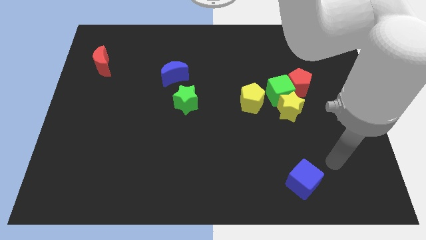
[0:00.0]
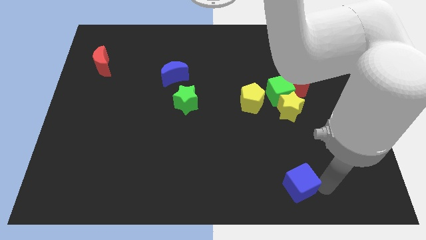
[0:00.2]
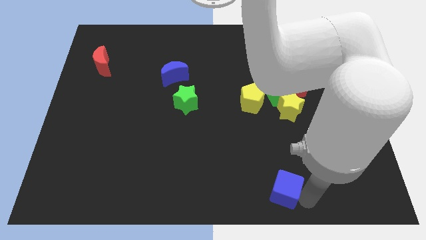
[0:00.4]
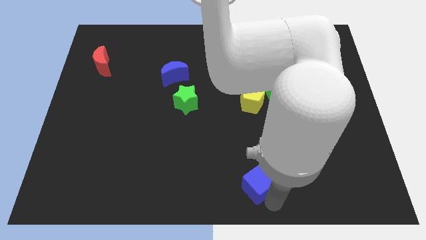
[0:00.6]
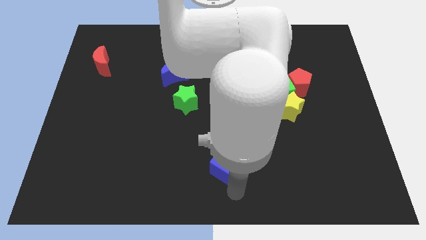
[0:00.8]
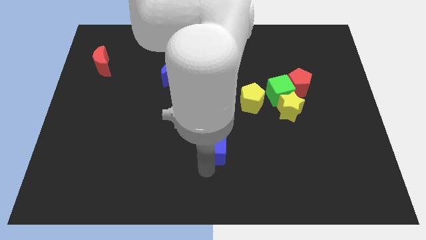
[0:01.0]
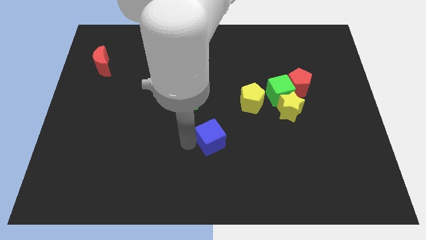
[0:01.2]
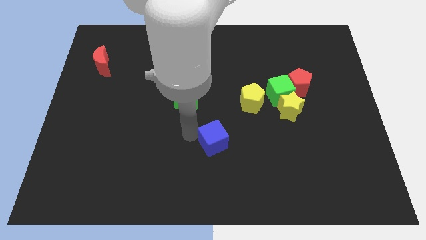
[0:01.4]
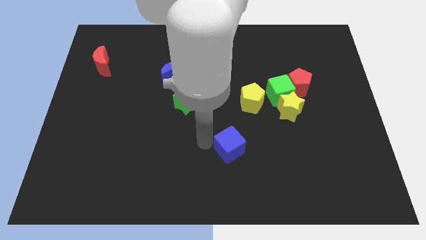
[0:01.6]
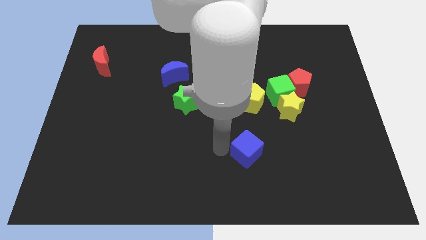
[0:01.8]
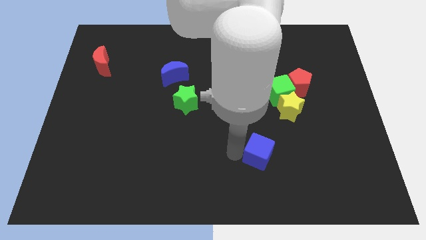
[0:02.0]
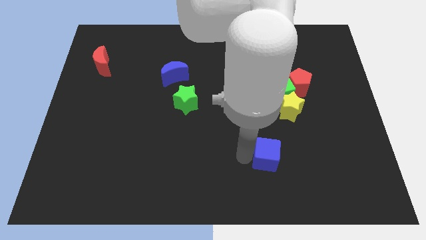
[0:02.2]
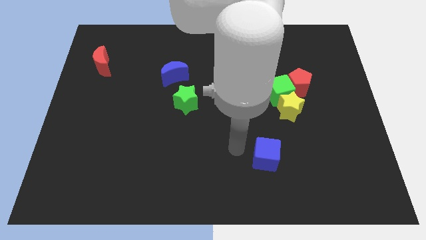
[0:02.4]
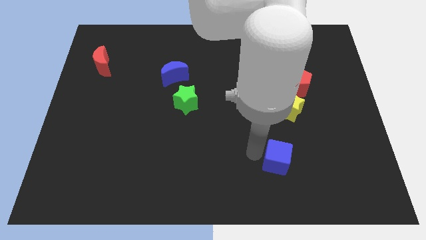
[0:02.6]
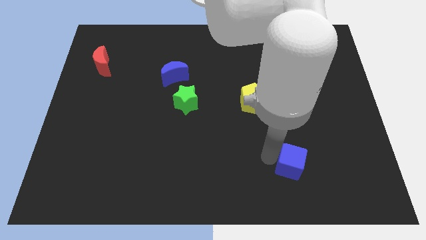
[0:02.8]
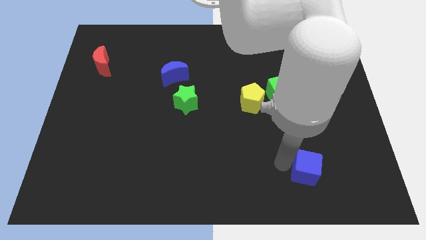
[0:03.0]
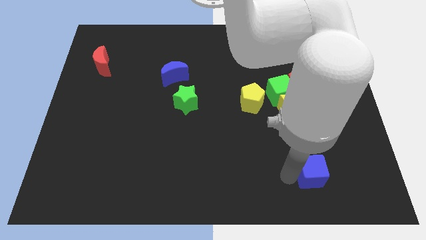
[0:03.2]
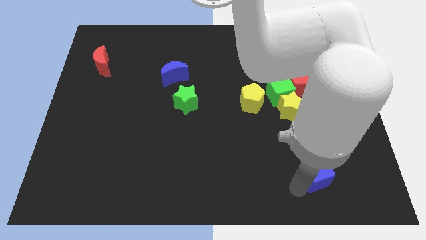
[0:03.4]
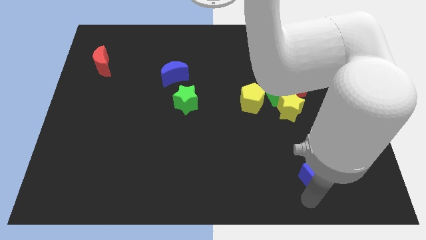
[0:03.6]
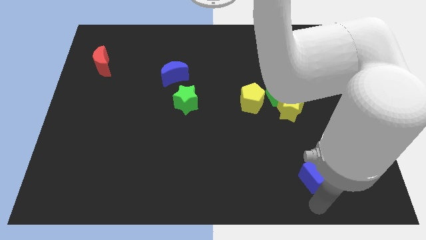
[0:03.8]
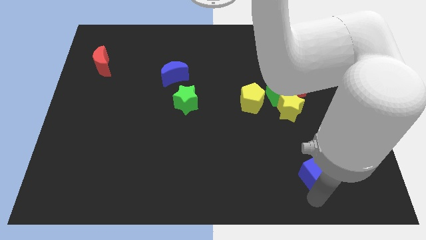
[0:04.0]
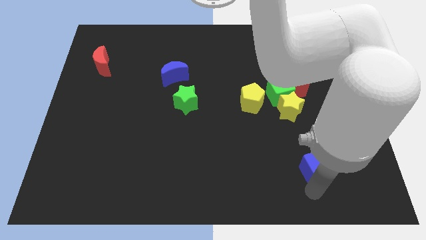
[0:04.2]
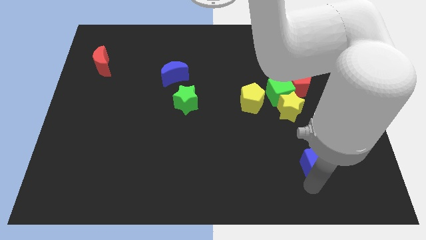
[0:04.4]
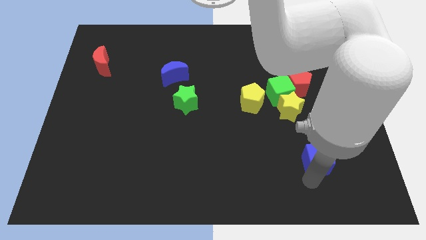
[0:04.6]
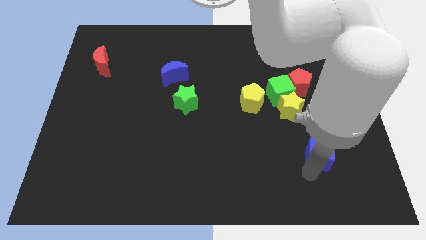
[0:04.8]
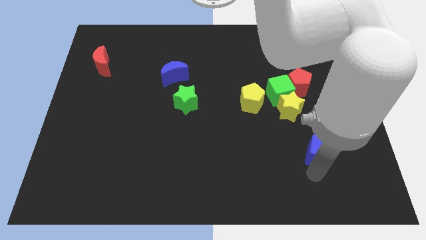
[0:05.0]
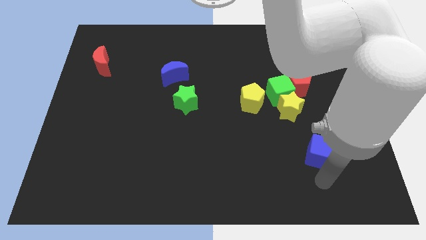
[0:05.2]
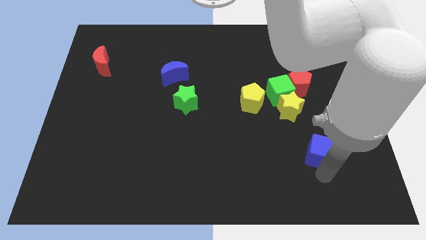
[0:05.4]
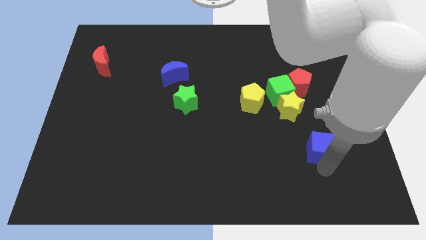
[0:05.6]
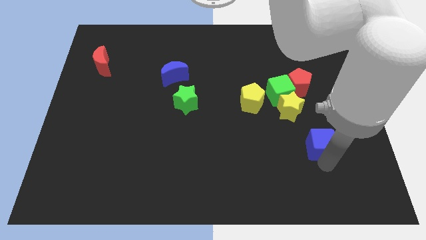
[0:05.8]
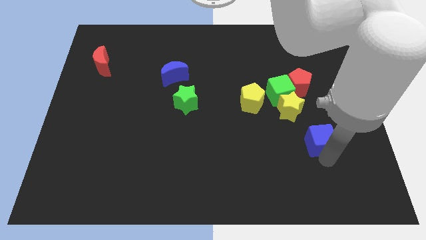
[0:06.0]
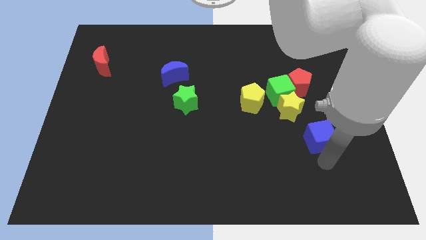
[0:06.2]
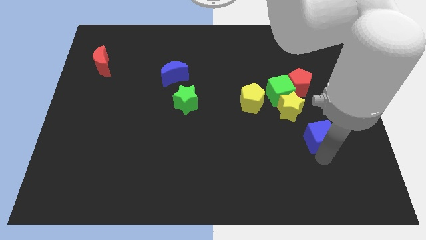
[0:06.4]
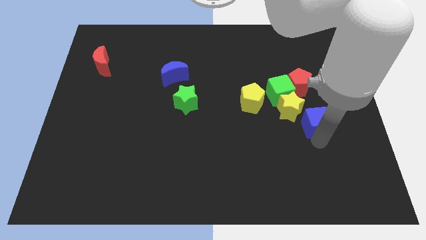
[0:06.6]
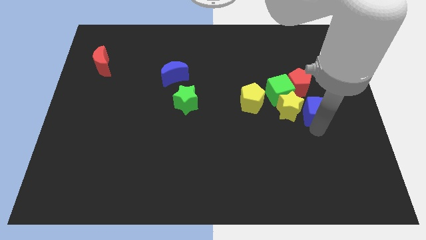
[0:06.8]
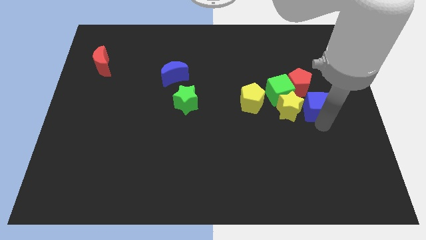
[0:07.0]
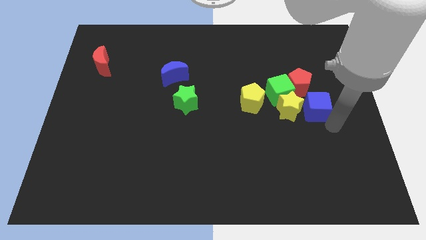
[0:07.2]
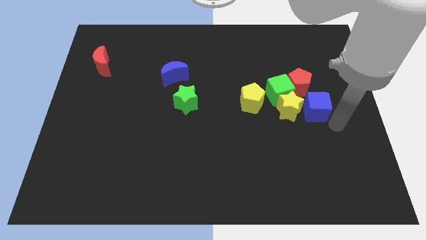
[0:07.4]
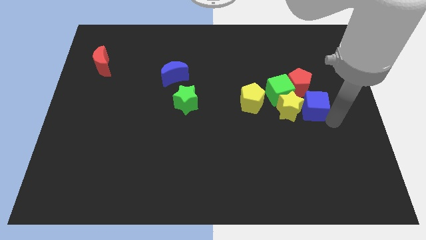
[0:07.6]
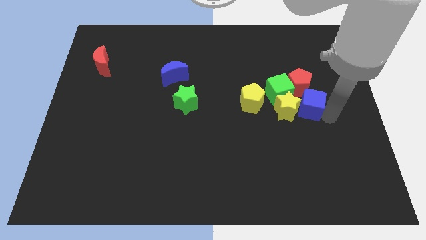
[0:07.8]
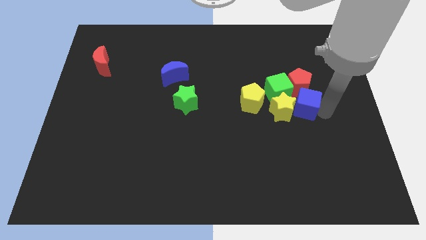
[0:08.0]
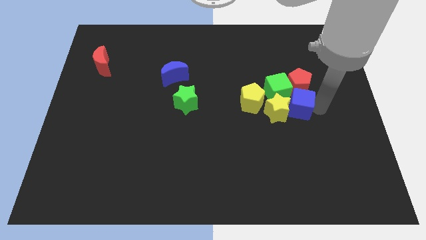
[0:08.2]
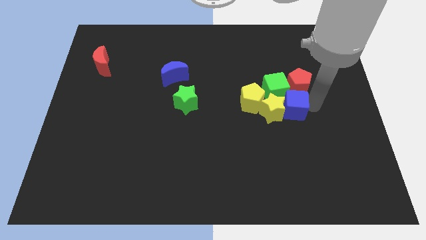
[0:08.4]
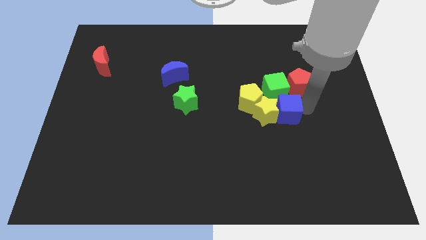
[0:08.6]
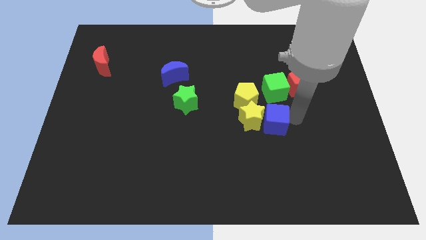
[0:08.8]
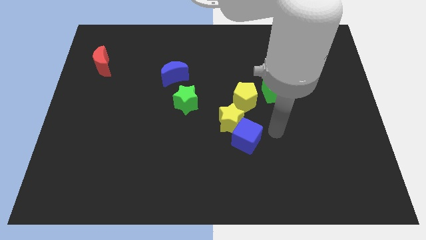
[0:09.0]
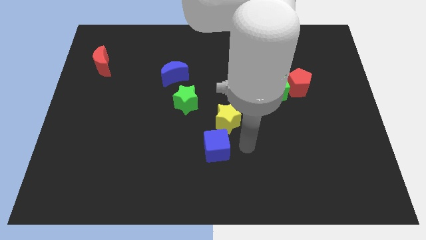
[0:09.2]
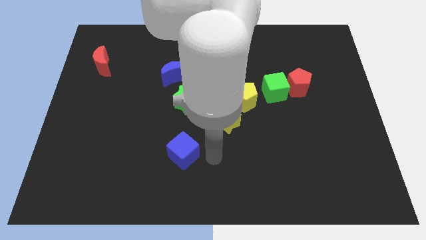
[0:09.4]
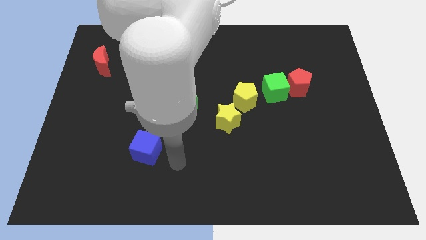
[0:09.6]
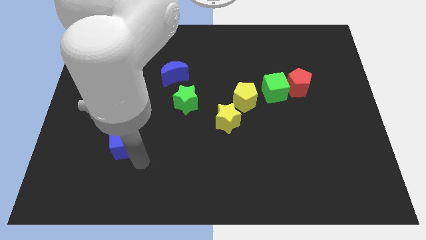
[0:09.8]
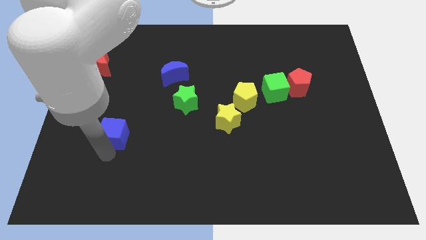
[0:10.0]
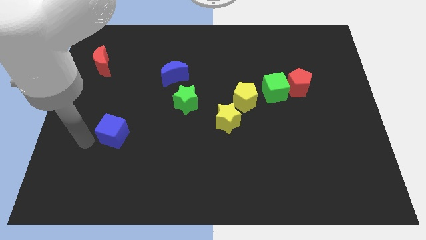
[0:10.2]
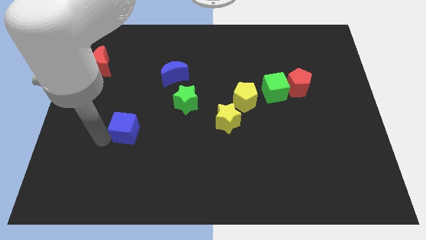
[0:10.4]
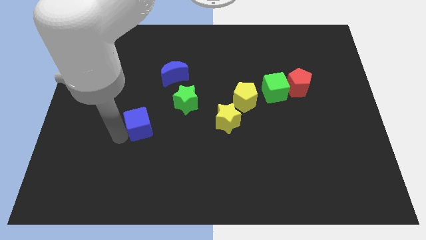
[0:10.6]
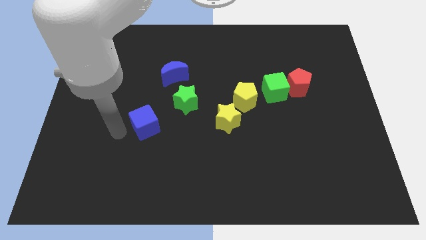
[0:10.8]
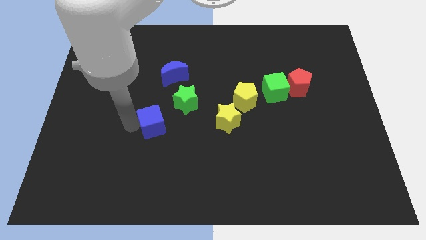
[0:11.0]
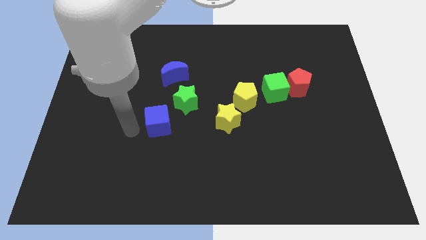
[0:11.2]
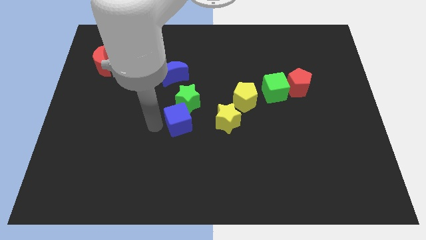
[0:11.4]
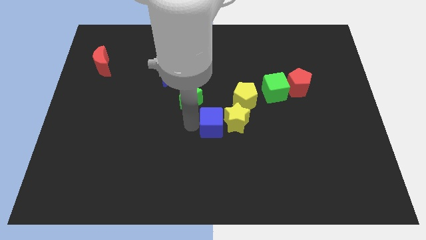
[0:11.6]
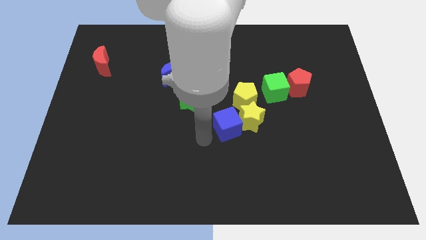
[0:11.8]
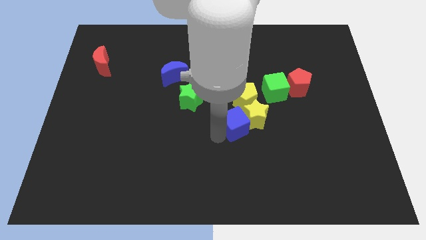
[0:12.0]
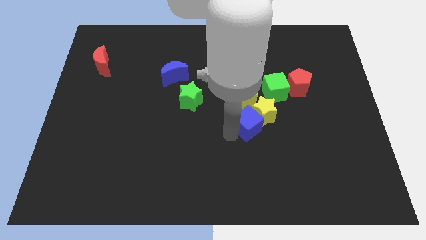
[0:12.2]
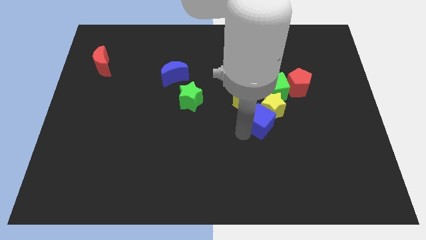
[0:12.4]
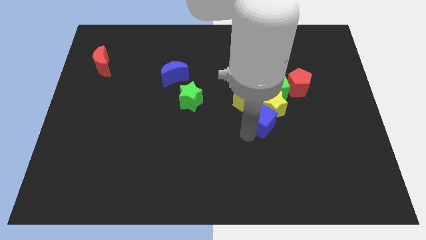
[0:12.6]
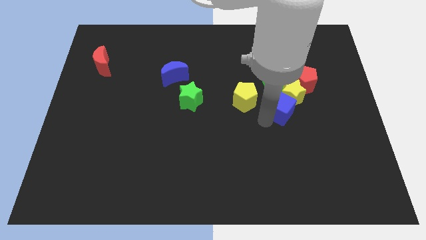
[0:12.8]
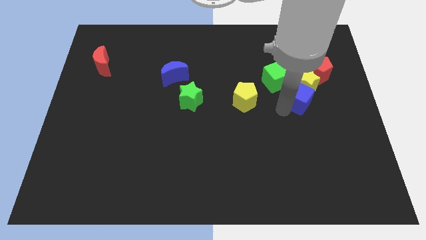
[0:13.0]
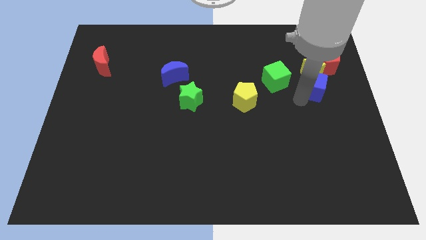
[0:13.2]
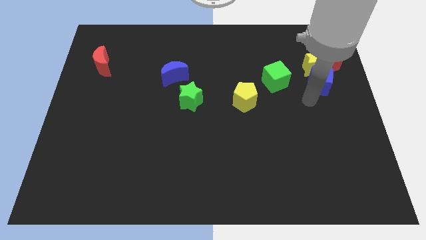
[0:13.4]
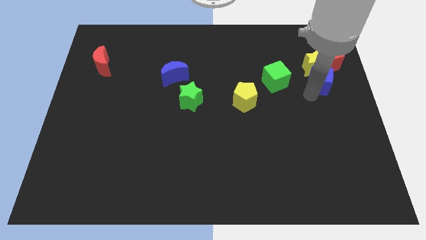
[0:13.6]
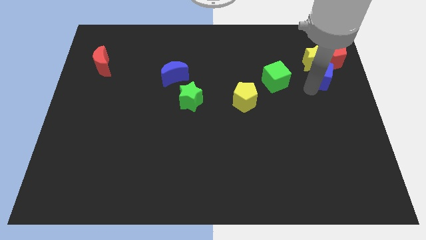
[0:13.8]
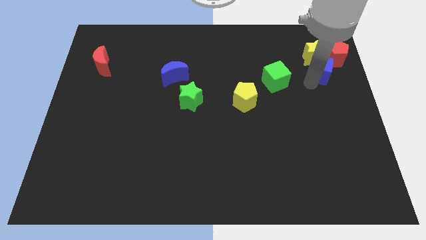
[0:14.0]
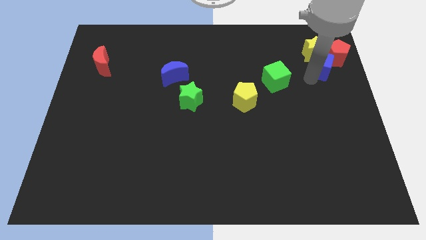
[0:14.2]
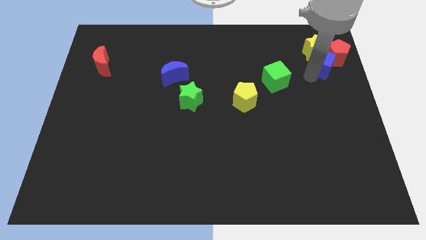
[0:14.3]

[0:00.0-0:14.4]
slide the blue cube to the red pentagon

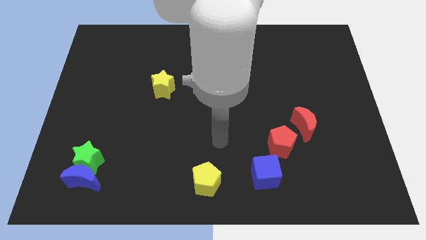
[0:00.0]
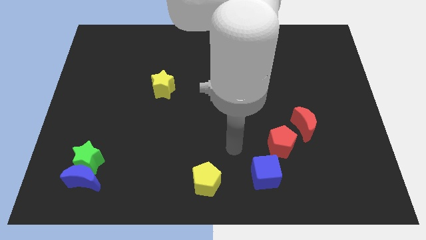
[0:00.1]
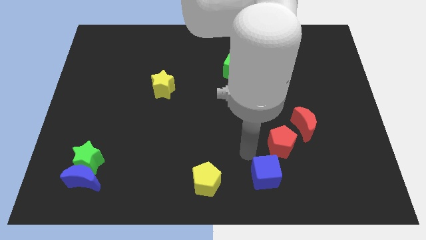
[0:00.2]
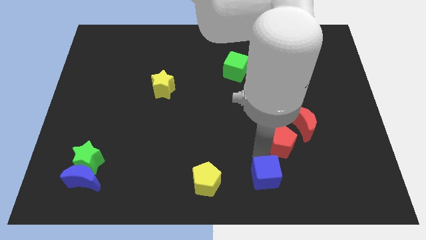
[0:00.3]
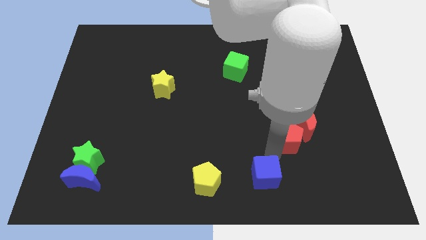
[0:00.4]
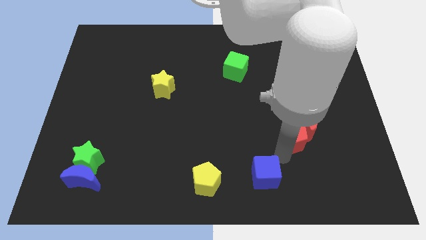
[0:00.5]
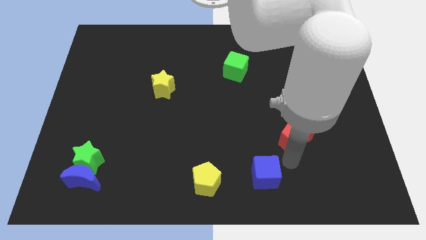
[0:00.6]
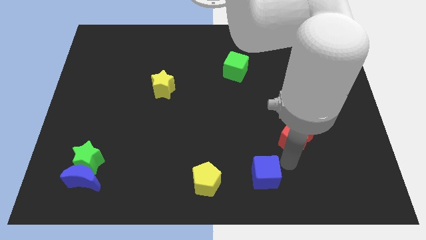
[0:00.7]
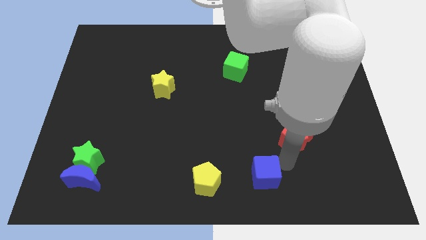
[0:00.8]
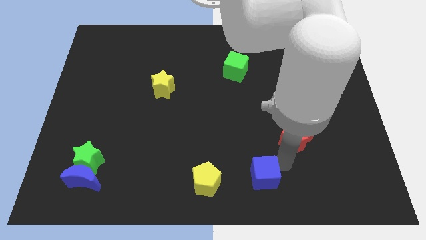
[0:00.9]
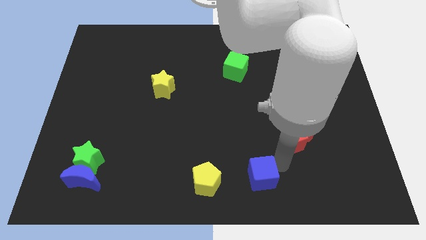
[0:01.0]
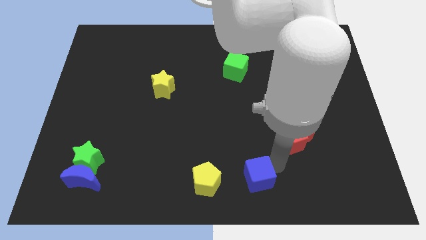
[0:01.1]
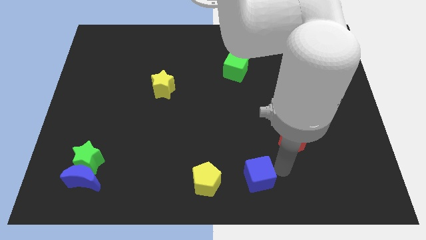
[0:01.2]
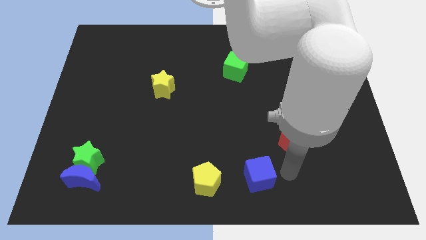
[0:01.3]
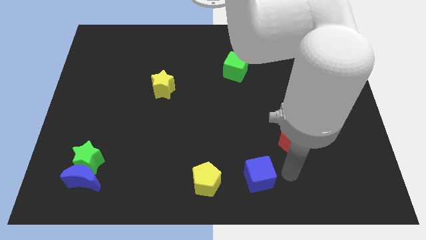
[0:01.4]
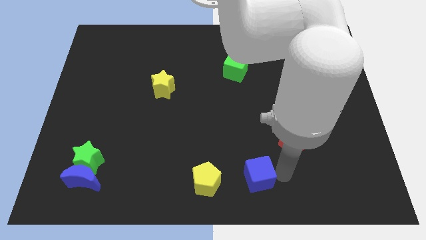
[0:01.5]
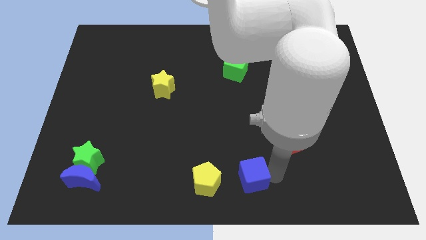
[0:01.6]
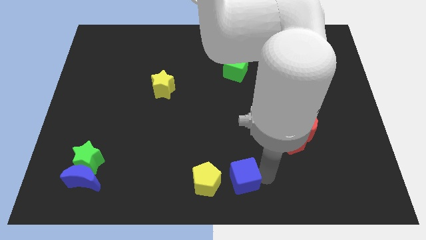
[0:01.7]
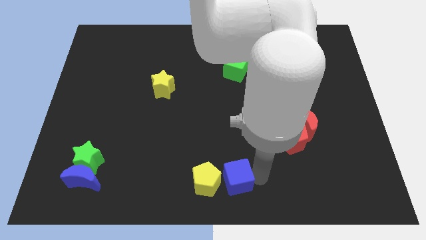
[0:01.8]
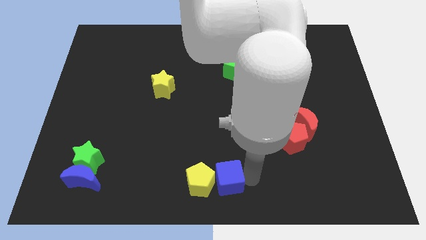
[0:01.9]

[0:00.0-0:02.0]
put the blue cube close to the yellow pentagon
